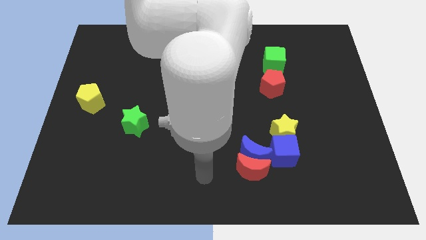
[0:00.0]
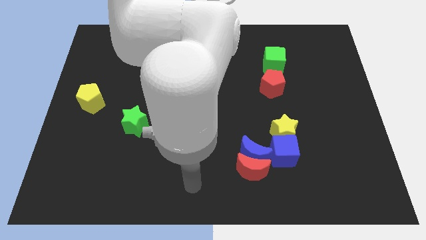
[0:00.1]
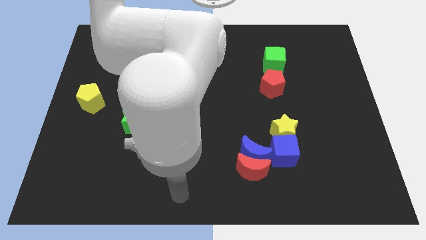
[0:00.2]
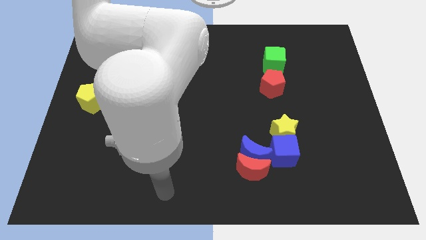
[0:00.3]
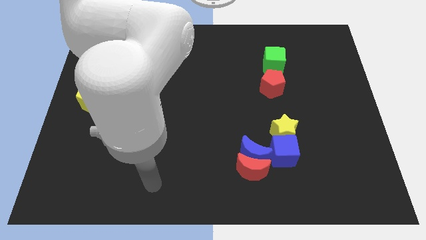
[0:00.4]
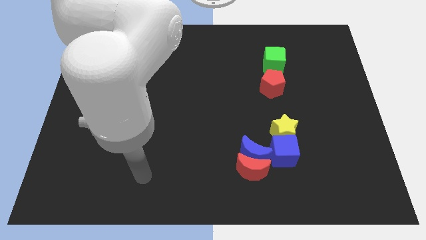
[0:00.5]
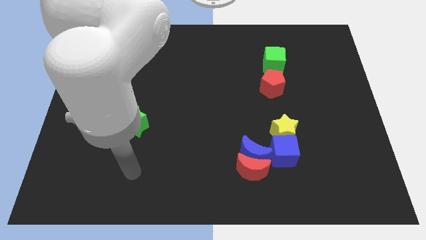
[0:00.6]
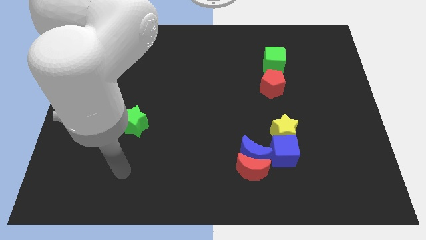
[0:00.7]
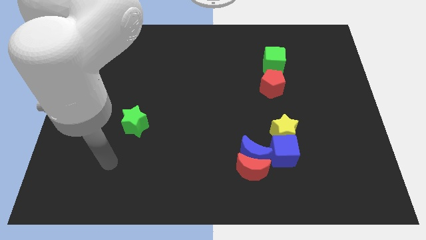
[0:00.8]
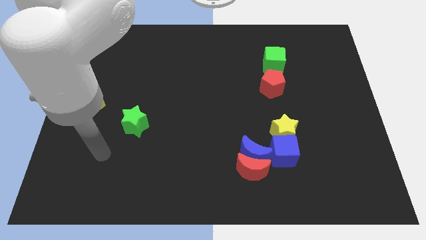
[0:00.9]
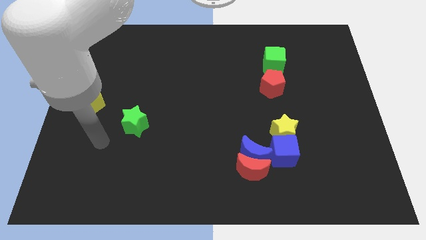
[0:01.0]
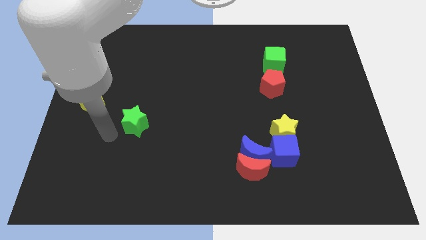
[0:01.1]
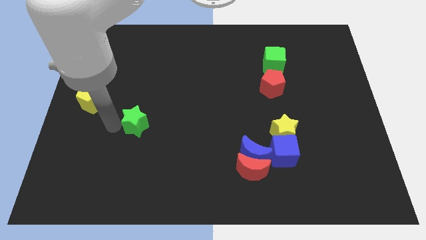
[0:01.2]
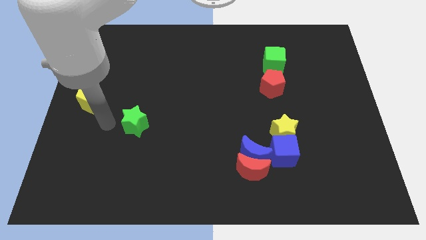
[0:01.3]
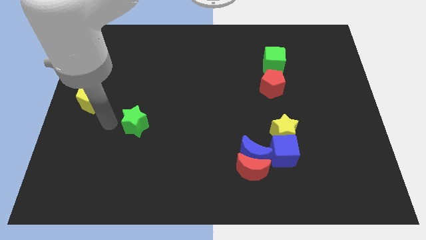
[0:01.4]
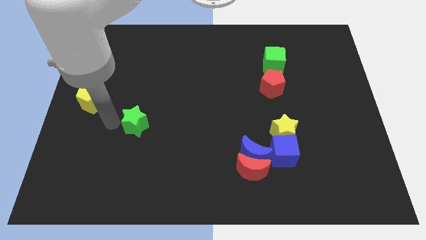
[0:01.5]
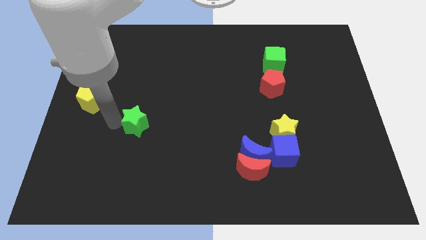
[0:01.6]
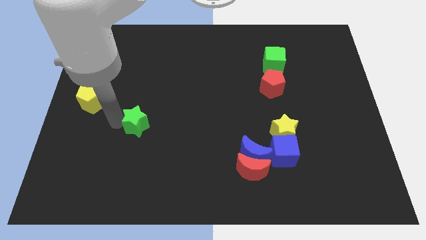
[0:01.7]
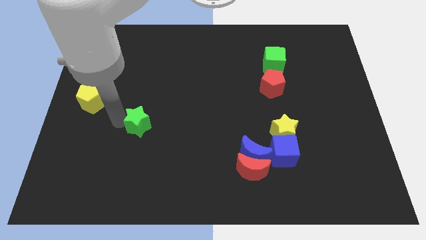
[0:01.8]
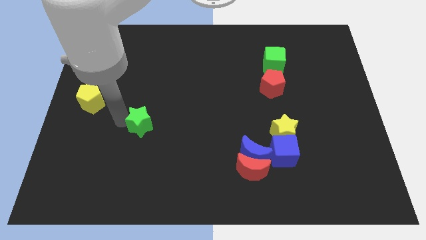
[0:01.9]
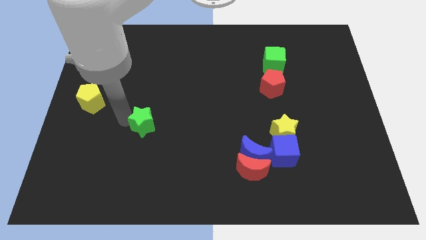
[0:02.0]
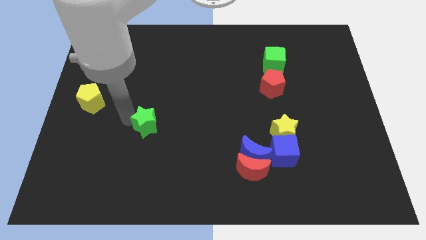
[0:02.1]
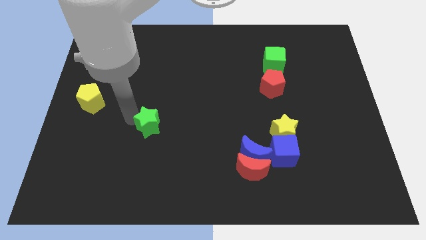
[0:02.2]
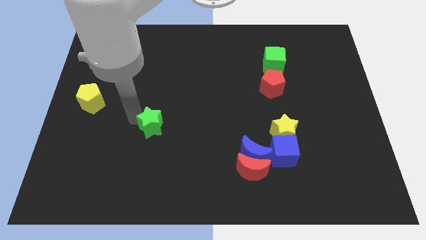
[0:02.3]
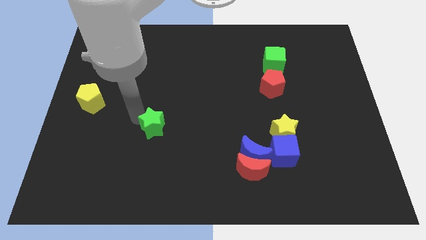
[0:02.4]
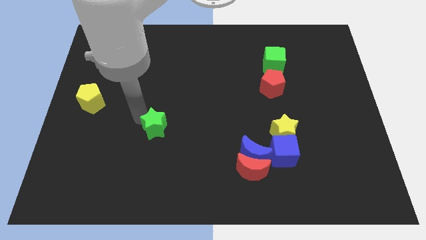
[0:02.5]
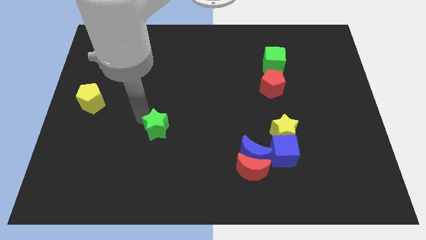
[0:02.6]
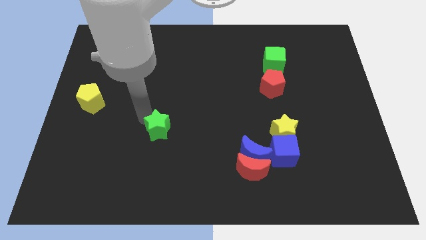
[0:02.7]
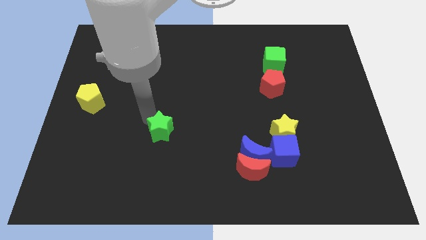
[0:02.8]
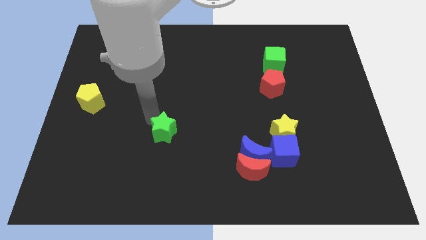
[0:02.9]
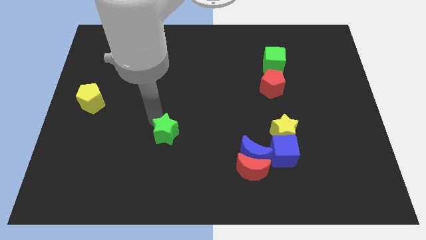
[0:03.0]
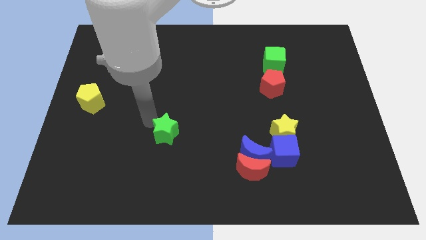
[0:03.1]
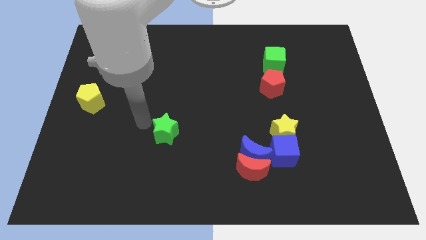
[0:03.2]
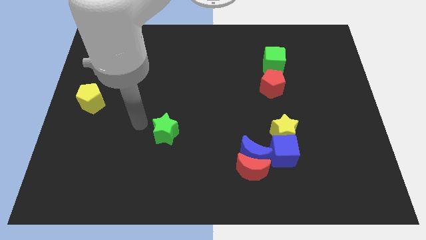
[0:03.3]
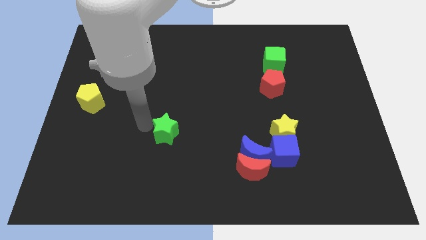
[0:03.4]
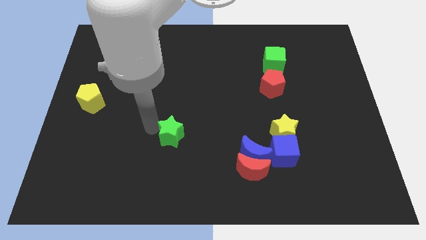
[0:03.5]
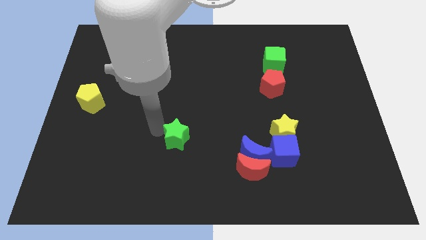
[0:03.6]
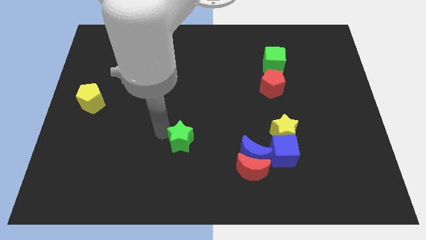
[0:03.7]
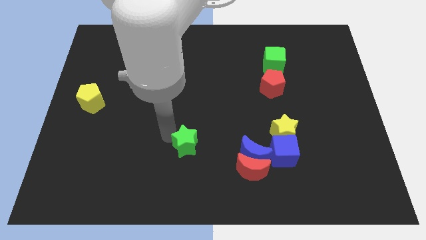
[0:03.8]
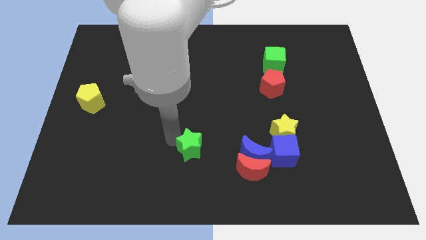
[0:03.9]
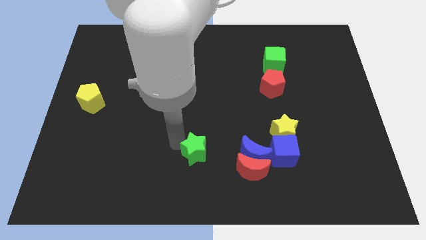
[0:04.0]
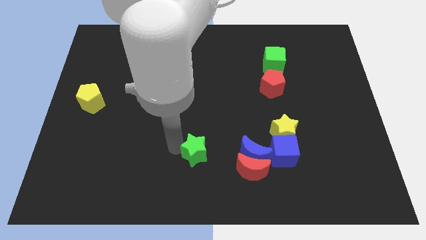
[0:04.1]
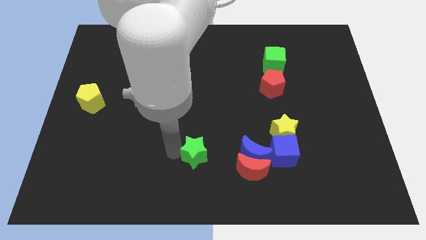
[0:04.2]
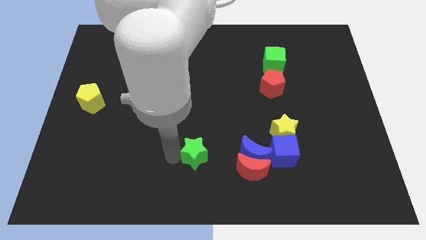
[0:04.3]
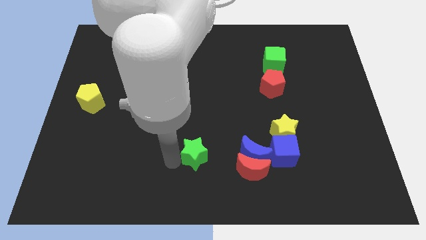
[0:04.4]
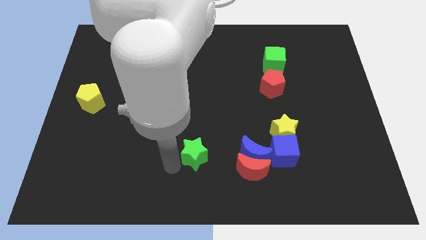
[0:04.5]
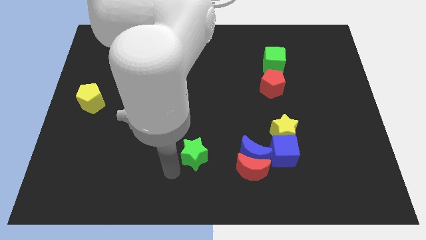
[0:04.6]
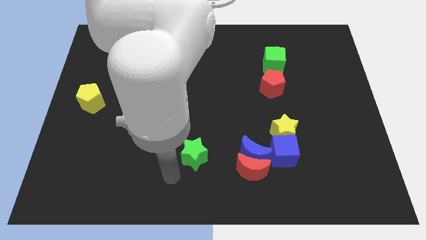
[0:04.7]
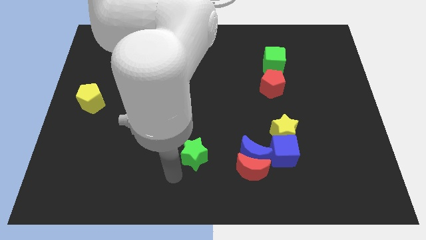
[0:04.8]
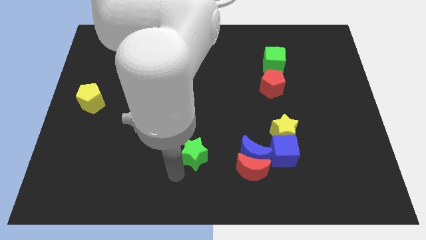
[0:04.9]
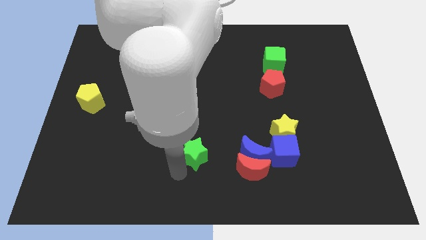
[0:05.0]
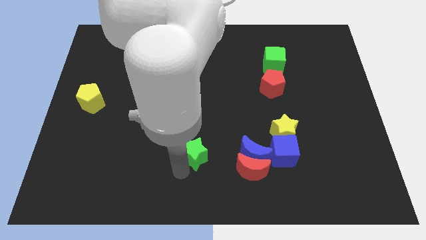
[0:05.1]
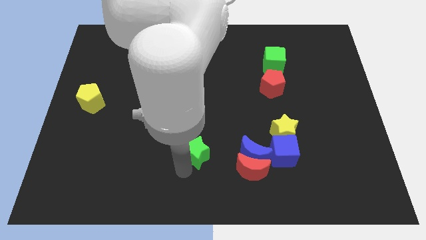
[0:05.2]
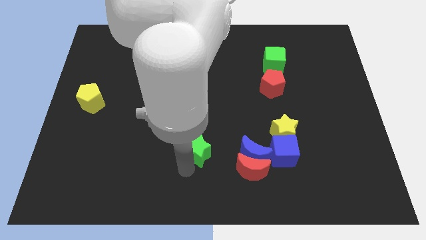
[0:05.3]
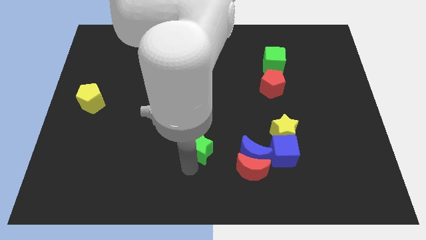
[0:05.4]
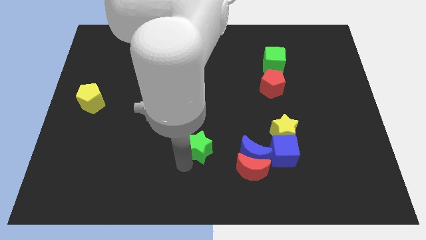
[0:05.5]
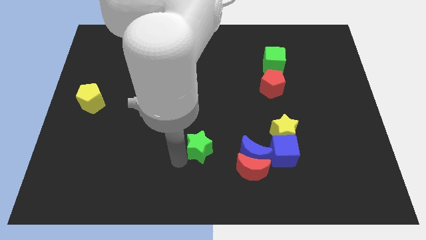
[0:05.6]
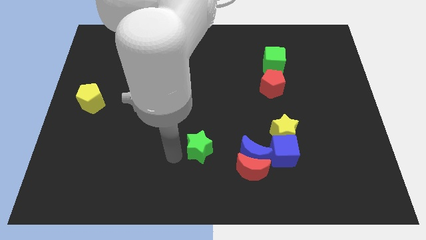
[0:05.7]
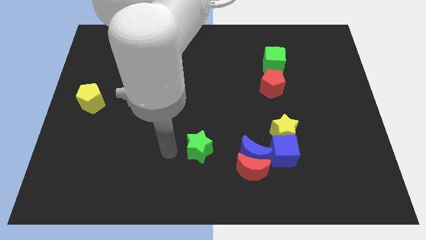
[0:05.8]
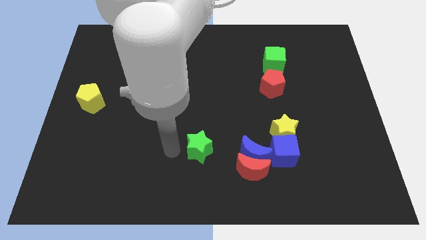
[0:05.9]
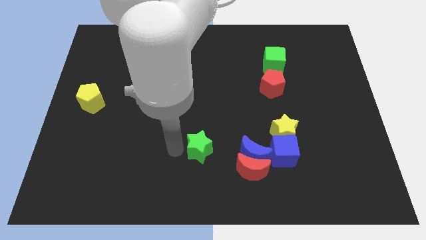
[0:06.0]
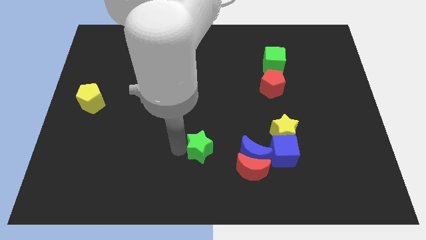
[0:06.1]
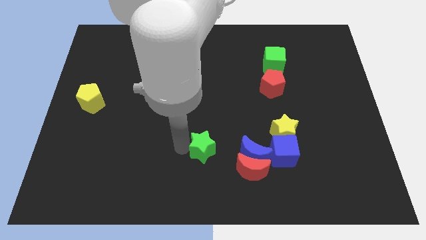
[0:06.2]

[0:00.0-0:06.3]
move the green star diagonally up and to the left of the red moon

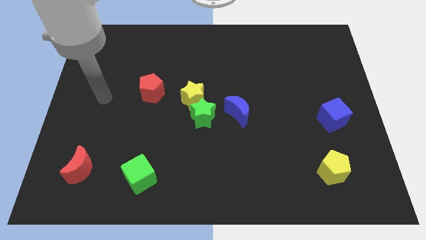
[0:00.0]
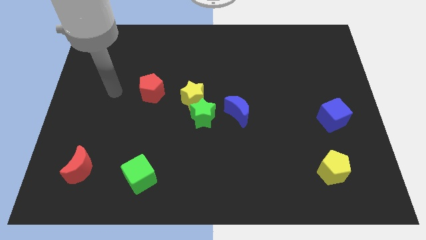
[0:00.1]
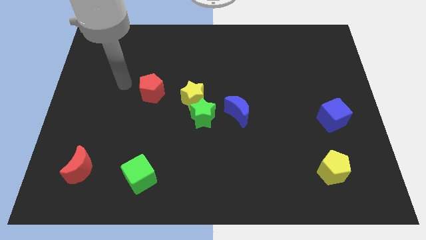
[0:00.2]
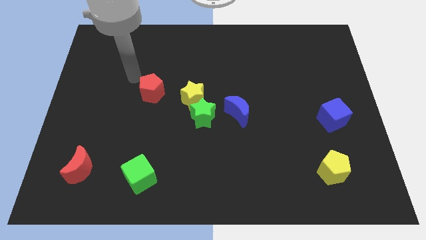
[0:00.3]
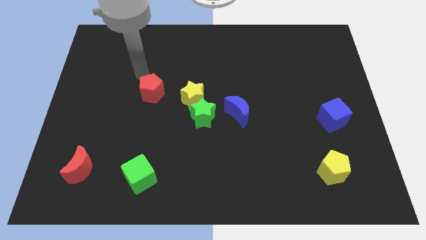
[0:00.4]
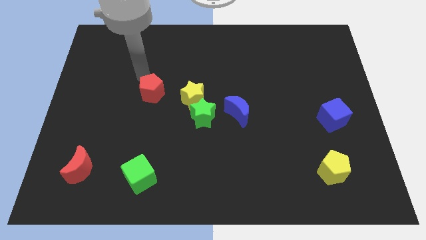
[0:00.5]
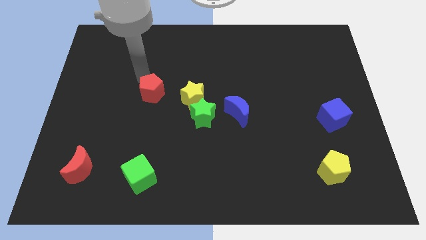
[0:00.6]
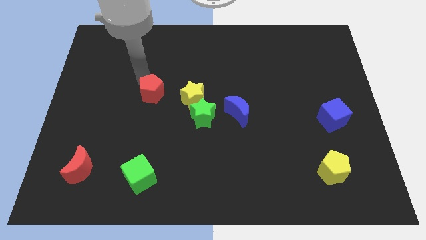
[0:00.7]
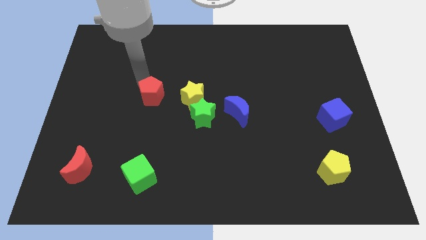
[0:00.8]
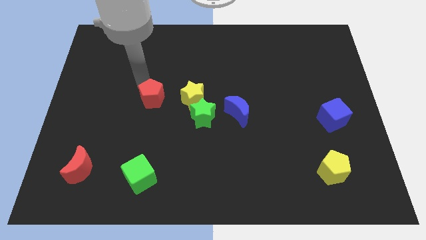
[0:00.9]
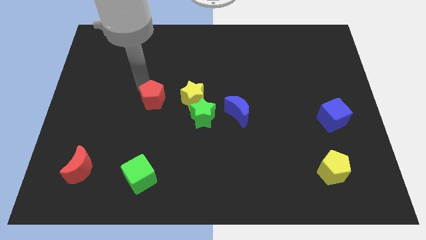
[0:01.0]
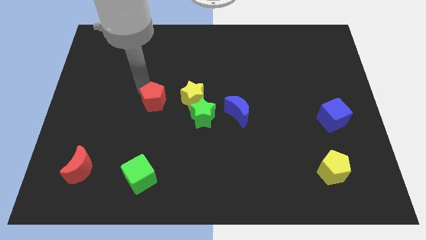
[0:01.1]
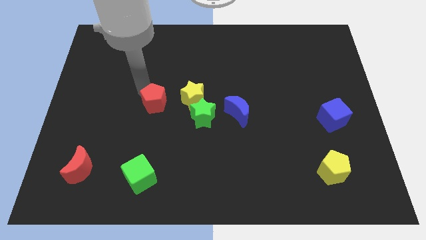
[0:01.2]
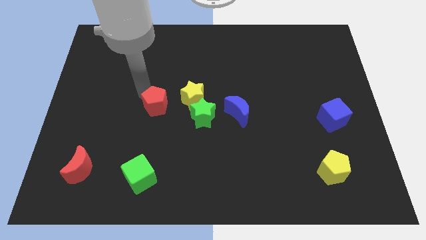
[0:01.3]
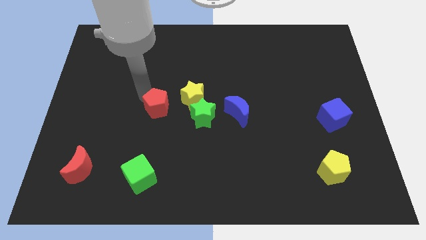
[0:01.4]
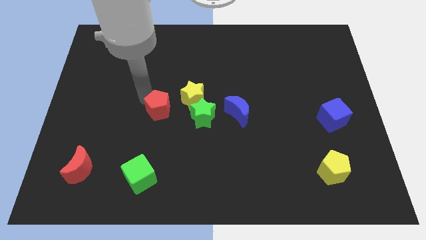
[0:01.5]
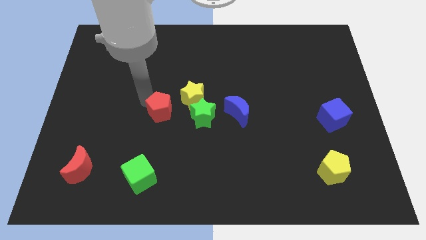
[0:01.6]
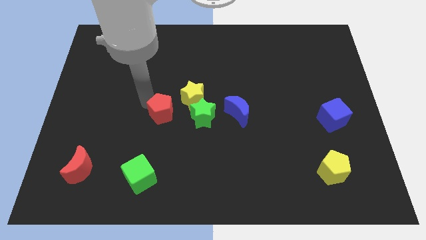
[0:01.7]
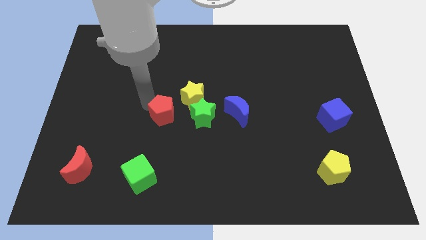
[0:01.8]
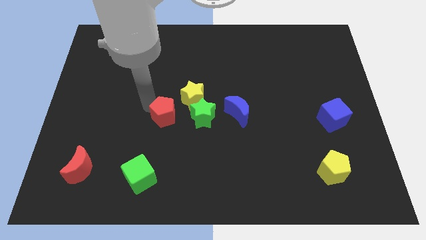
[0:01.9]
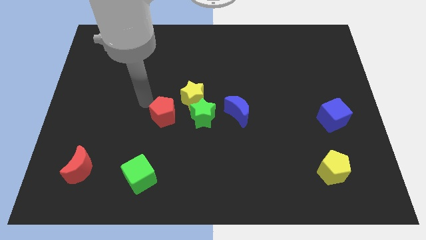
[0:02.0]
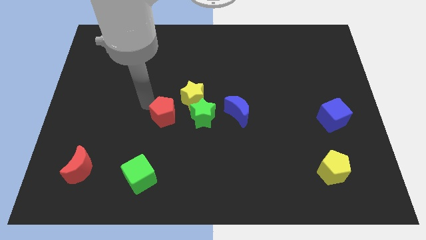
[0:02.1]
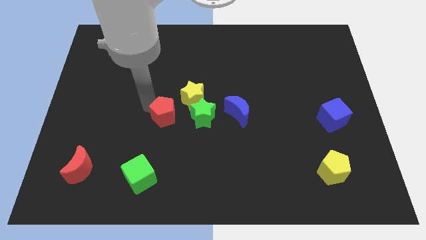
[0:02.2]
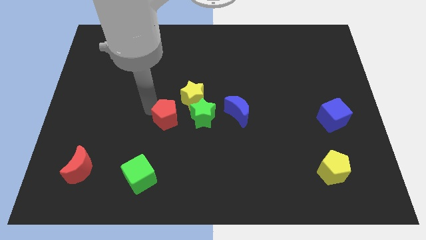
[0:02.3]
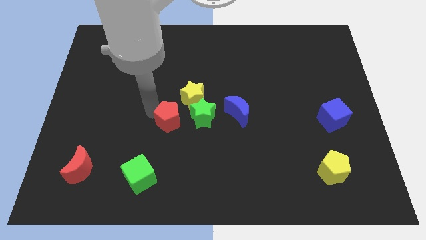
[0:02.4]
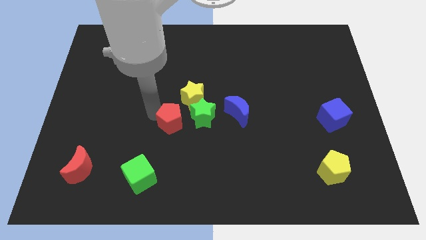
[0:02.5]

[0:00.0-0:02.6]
push the red pentagon to the bottom side of the yellow star
